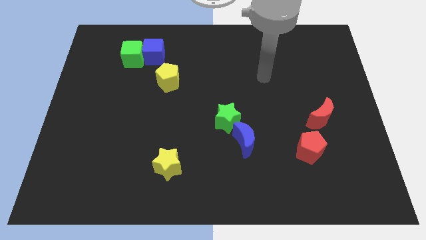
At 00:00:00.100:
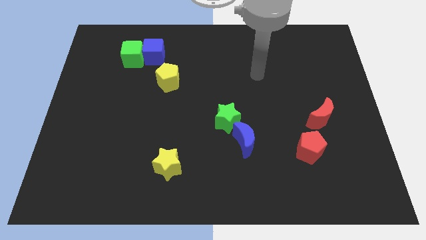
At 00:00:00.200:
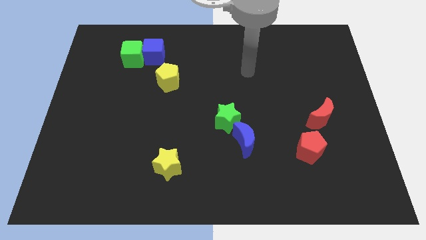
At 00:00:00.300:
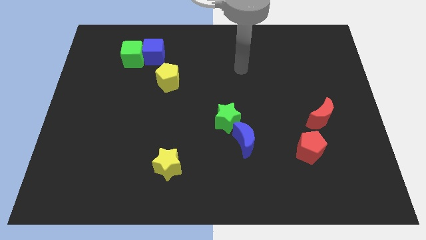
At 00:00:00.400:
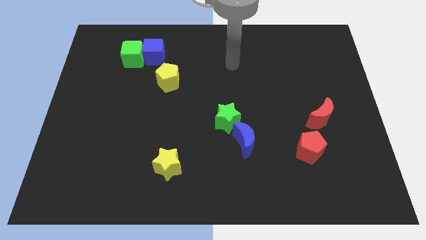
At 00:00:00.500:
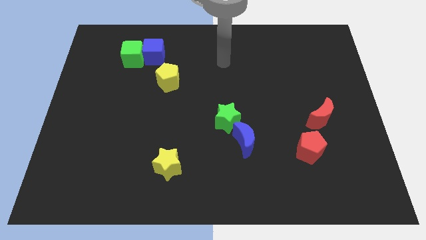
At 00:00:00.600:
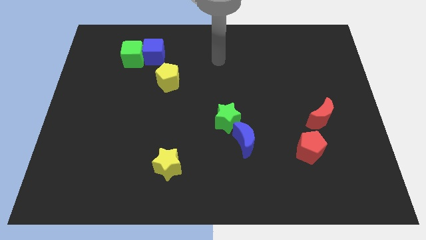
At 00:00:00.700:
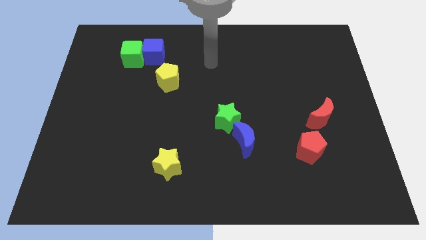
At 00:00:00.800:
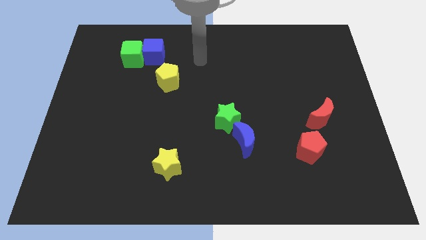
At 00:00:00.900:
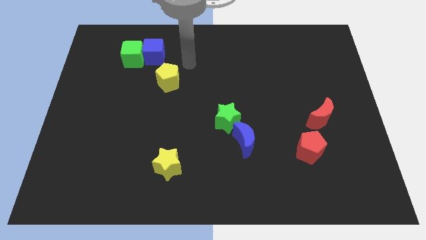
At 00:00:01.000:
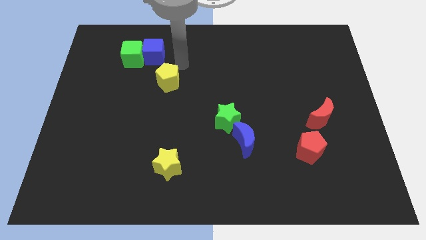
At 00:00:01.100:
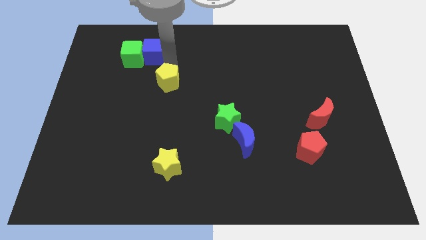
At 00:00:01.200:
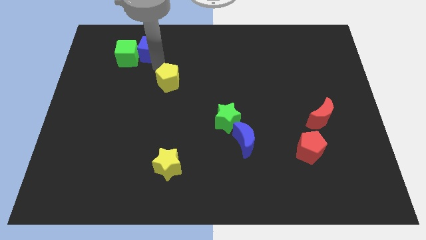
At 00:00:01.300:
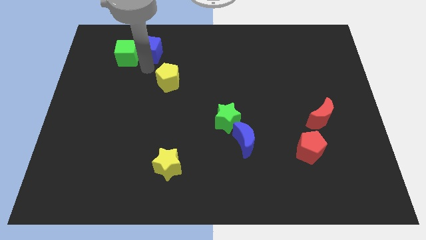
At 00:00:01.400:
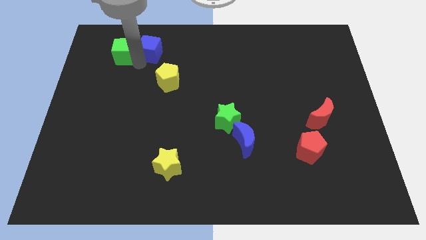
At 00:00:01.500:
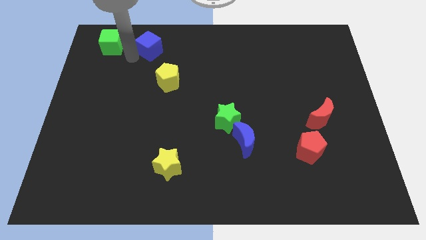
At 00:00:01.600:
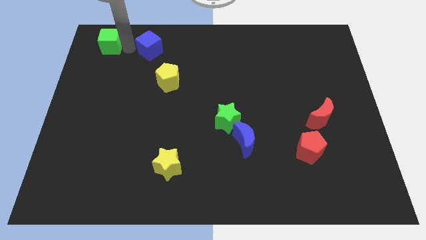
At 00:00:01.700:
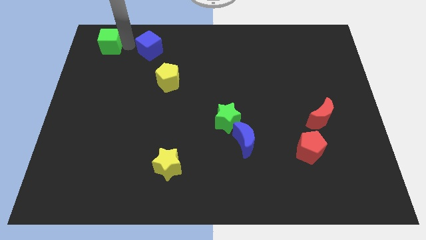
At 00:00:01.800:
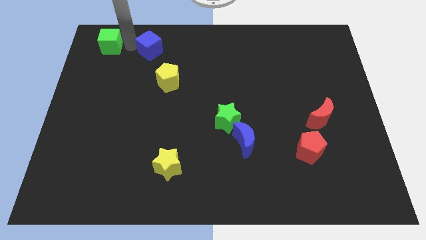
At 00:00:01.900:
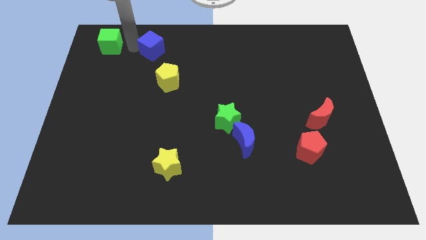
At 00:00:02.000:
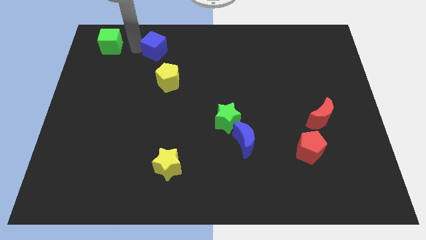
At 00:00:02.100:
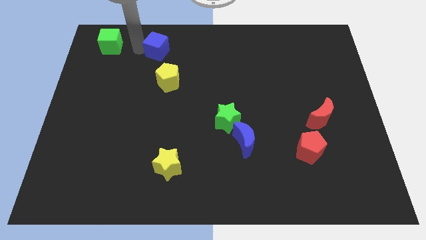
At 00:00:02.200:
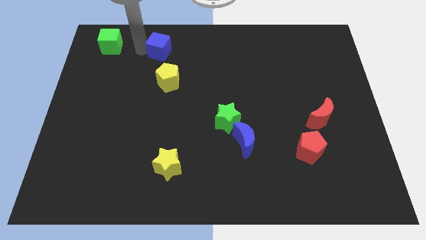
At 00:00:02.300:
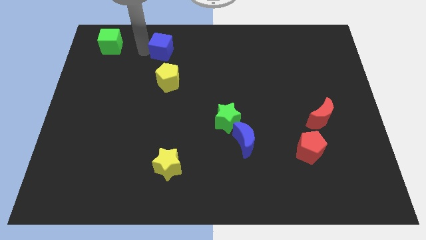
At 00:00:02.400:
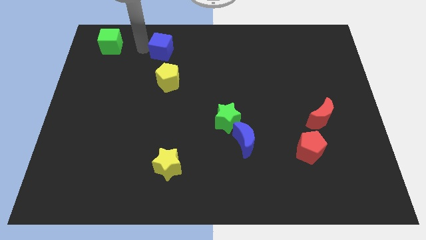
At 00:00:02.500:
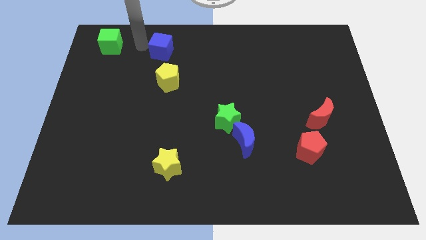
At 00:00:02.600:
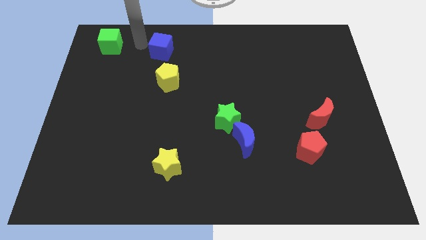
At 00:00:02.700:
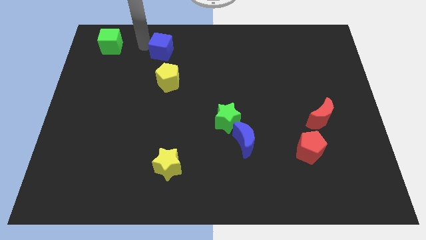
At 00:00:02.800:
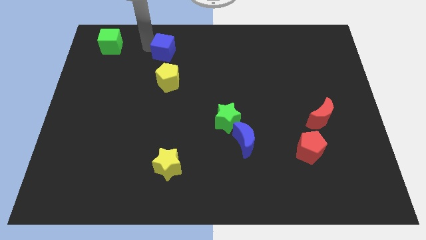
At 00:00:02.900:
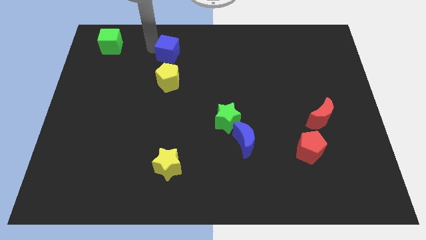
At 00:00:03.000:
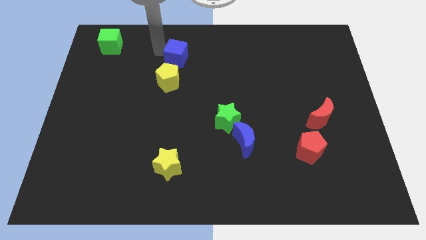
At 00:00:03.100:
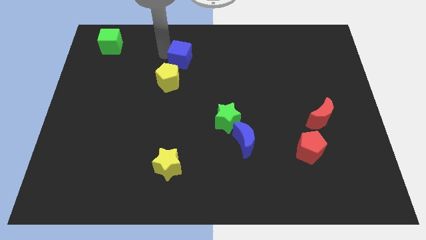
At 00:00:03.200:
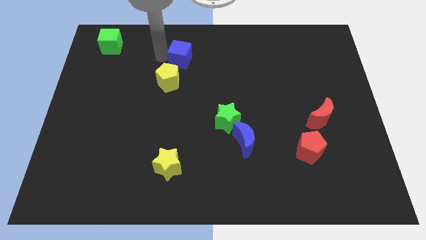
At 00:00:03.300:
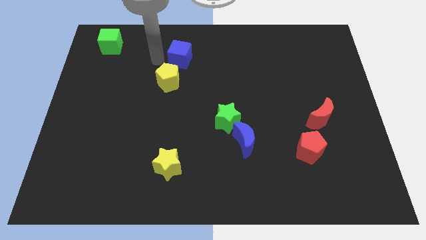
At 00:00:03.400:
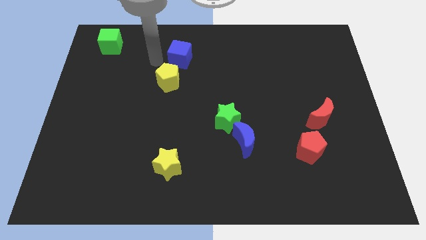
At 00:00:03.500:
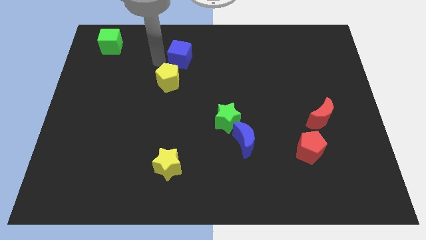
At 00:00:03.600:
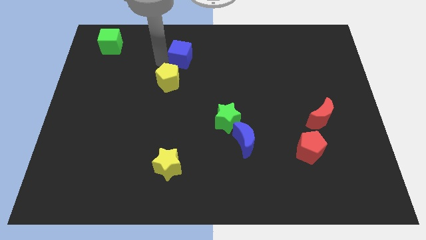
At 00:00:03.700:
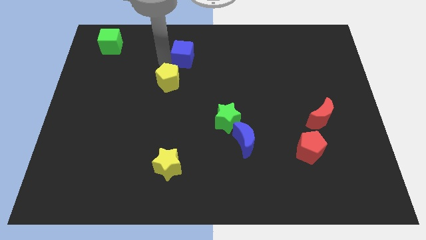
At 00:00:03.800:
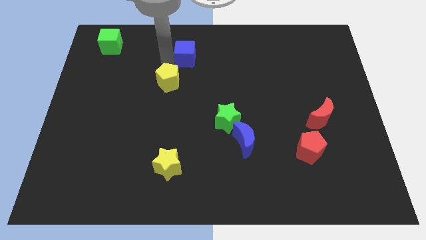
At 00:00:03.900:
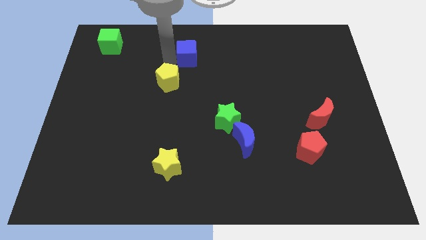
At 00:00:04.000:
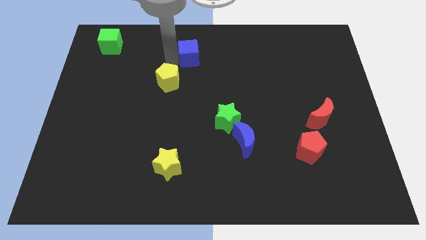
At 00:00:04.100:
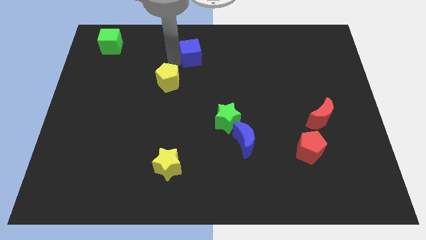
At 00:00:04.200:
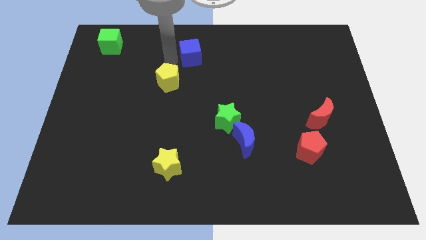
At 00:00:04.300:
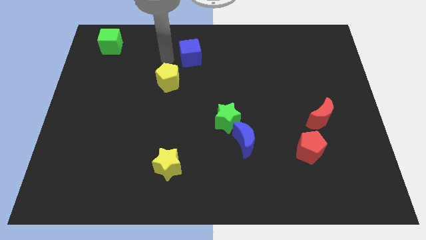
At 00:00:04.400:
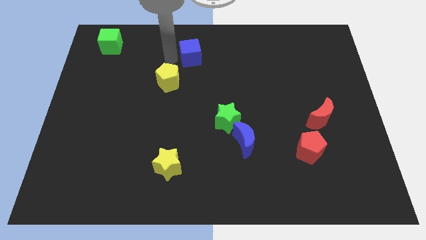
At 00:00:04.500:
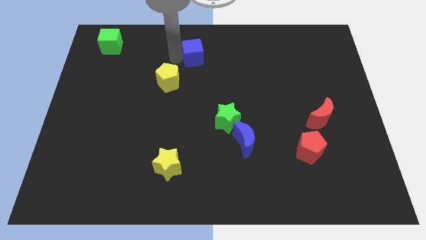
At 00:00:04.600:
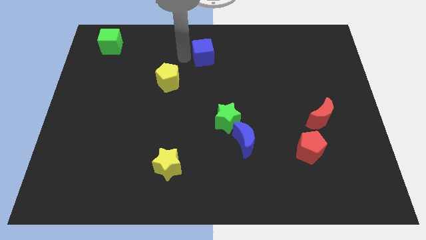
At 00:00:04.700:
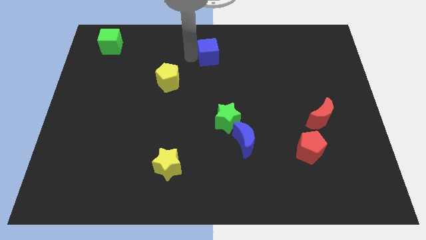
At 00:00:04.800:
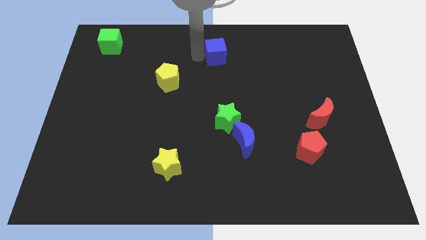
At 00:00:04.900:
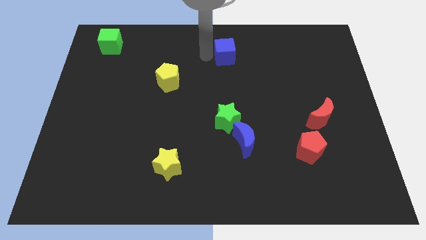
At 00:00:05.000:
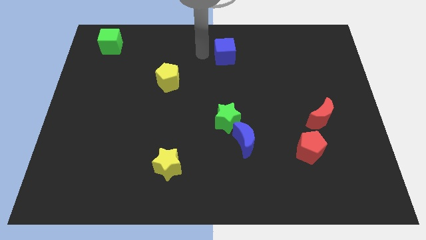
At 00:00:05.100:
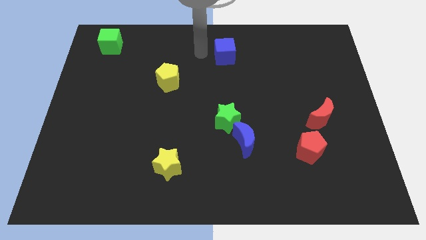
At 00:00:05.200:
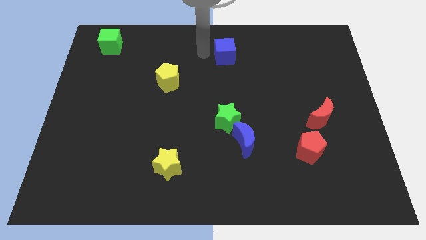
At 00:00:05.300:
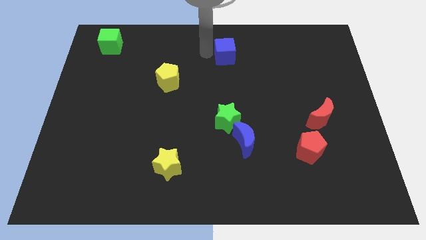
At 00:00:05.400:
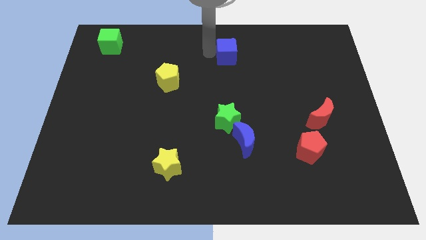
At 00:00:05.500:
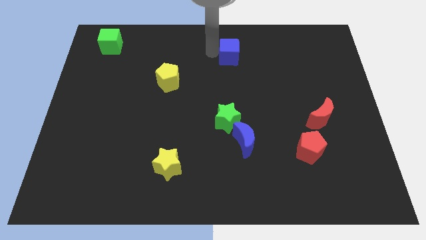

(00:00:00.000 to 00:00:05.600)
push the blue cube to the right

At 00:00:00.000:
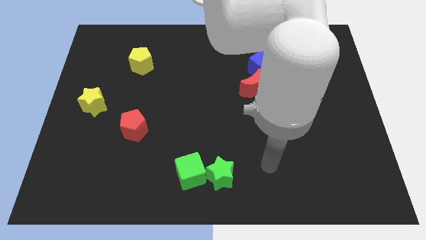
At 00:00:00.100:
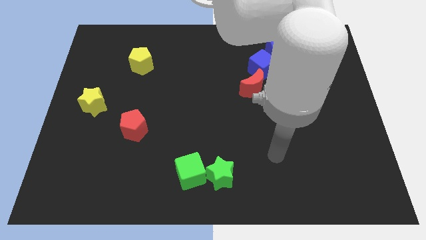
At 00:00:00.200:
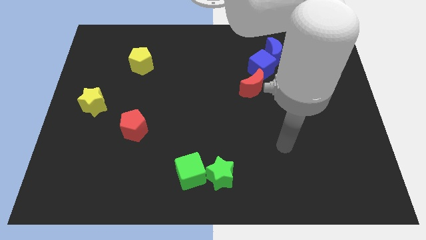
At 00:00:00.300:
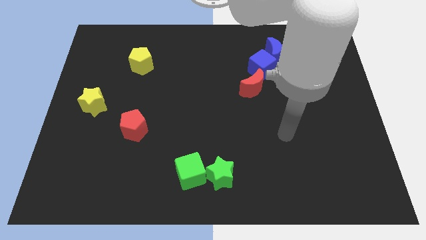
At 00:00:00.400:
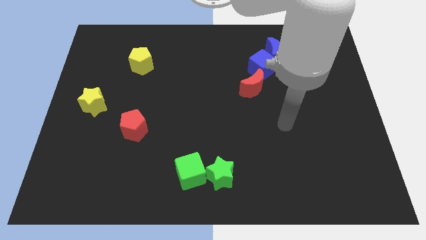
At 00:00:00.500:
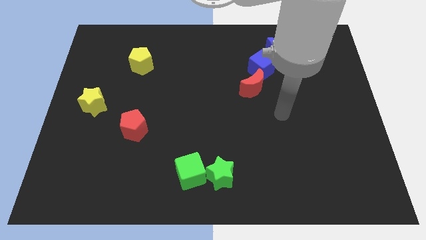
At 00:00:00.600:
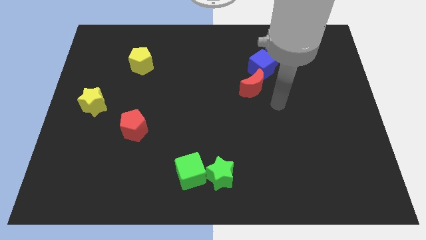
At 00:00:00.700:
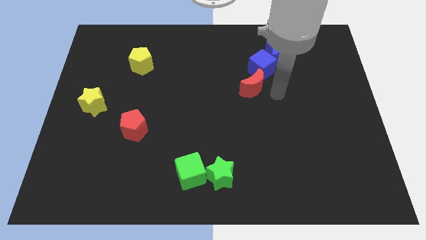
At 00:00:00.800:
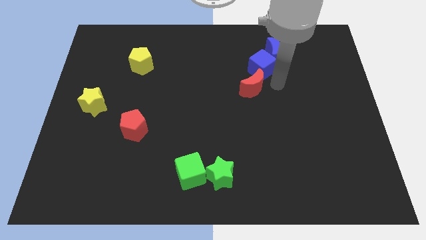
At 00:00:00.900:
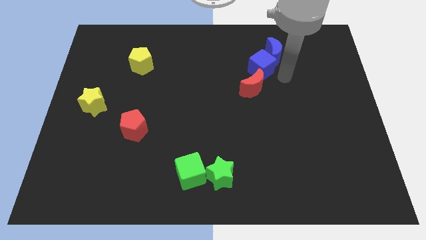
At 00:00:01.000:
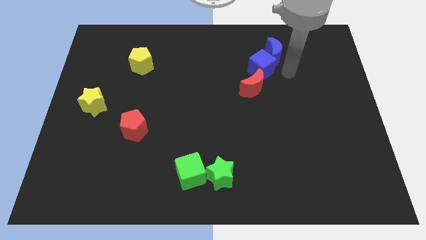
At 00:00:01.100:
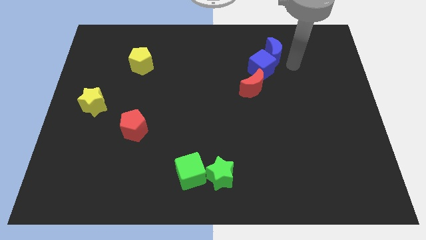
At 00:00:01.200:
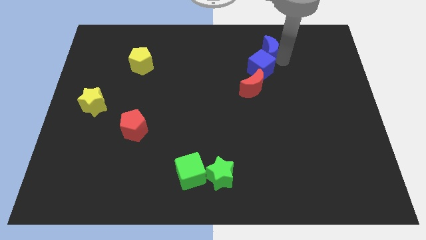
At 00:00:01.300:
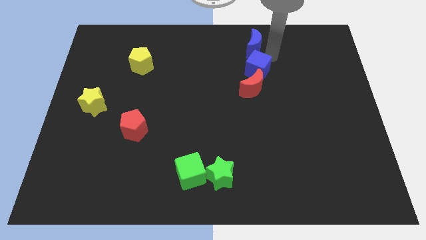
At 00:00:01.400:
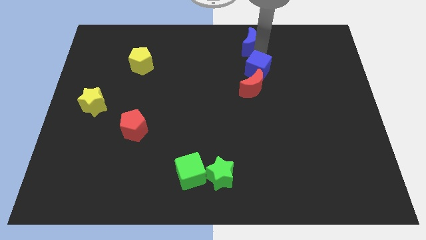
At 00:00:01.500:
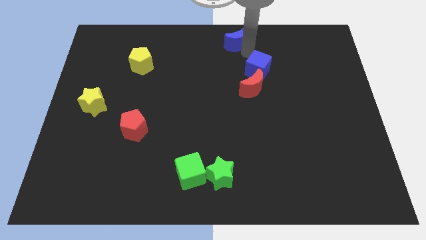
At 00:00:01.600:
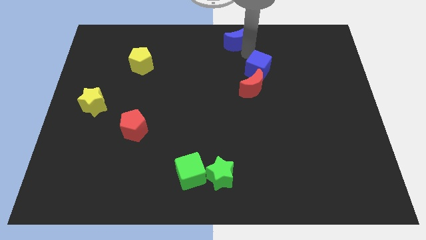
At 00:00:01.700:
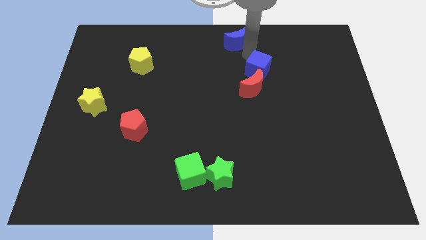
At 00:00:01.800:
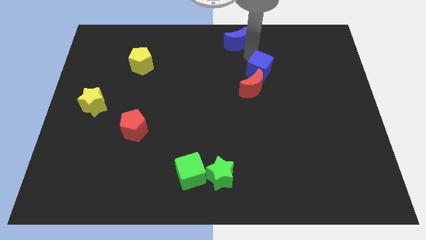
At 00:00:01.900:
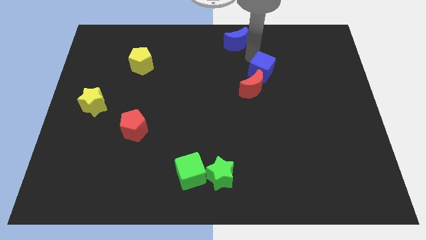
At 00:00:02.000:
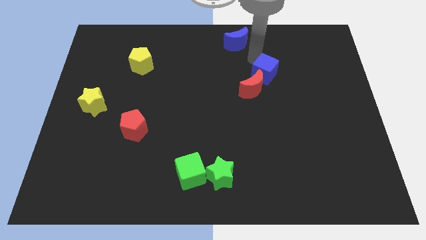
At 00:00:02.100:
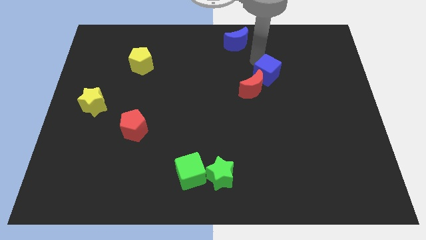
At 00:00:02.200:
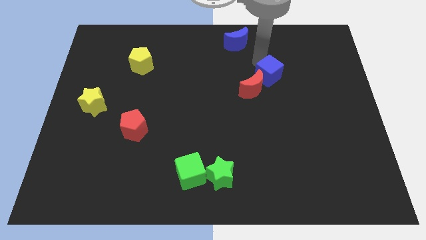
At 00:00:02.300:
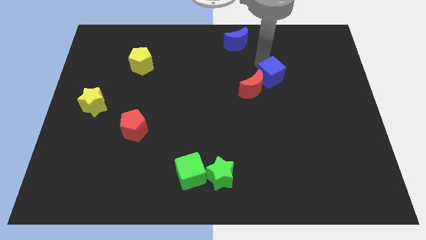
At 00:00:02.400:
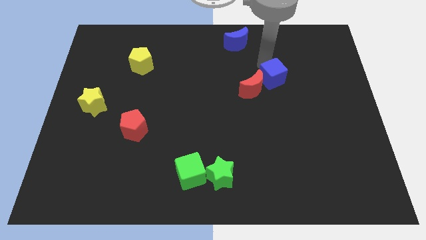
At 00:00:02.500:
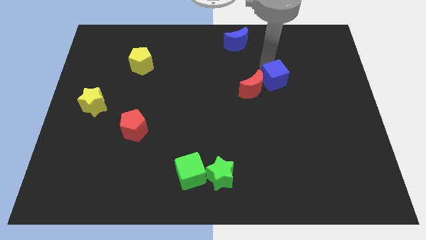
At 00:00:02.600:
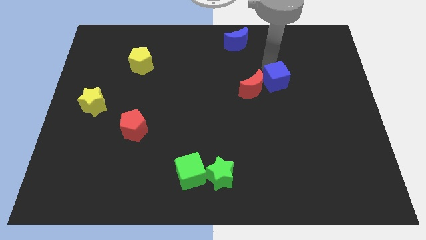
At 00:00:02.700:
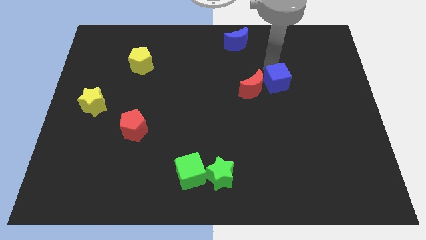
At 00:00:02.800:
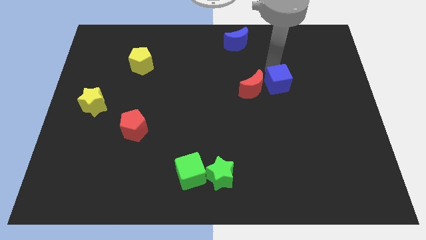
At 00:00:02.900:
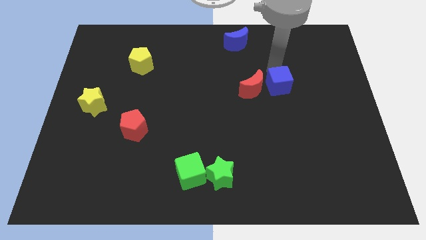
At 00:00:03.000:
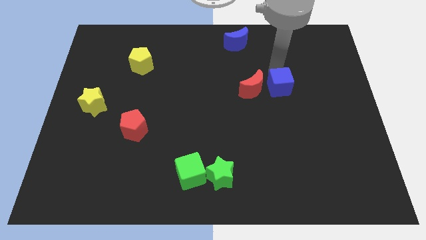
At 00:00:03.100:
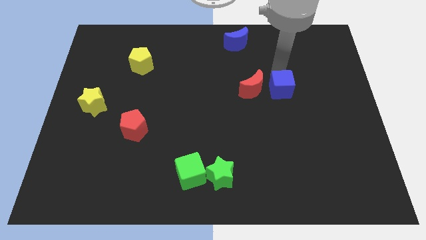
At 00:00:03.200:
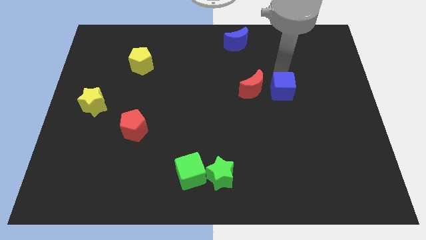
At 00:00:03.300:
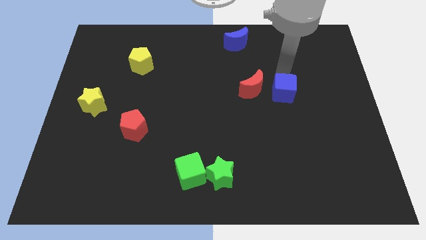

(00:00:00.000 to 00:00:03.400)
move the blue cube slightly down
